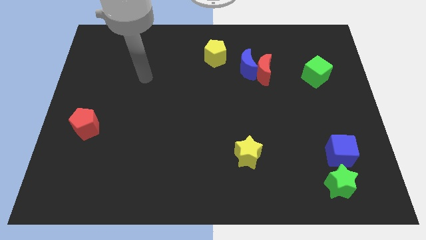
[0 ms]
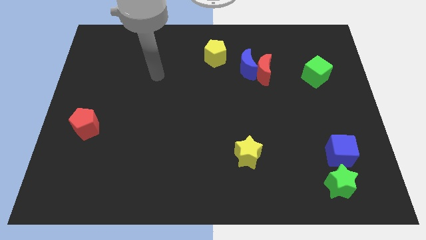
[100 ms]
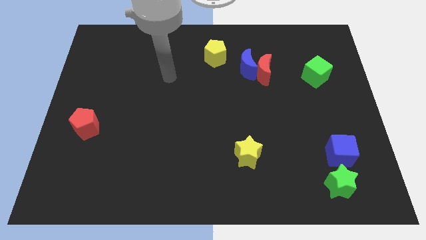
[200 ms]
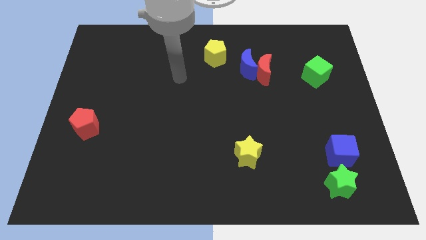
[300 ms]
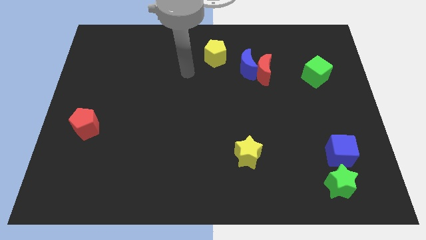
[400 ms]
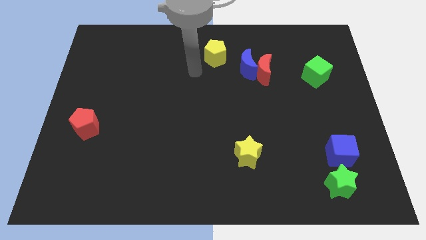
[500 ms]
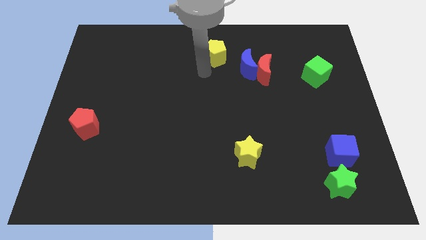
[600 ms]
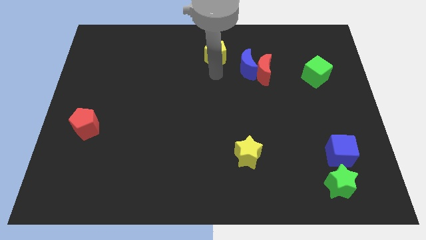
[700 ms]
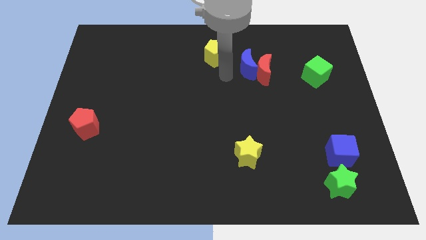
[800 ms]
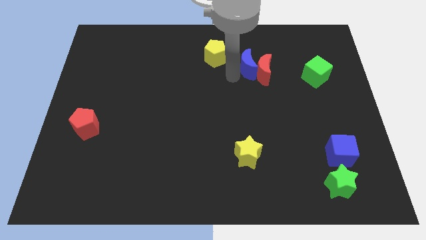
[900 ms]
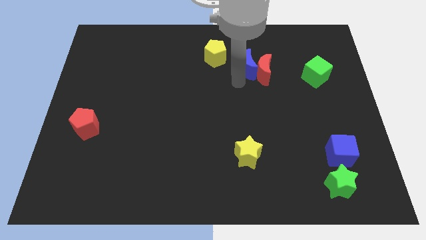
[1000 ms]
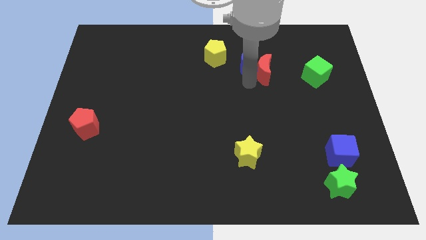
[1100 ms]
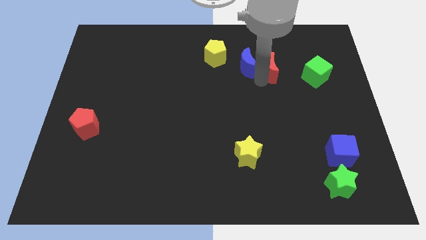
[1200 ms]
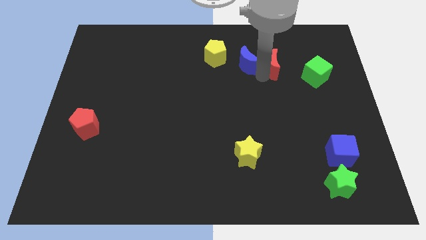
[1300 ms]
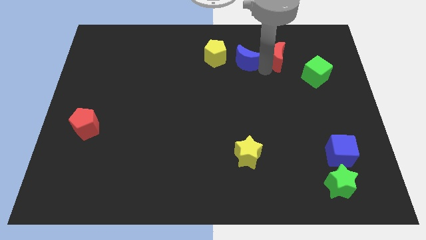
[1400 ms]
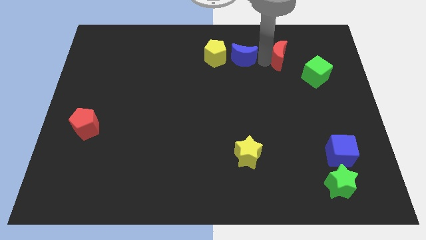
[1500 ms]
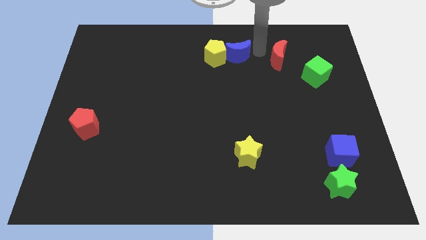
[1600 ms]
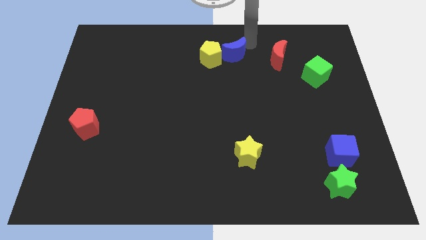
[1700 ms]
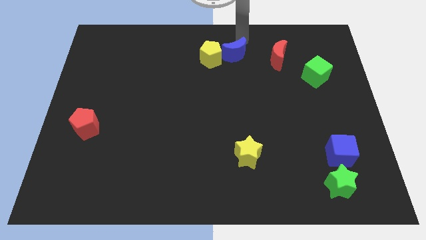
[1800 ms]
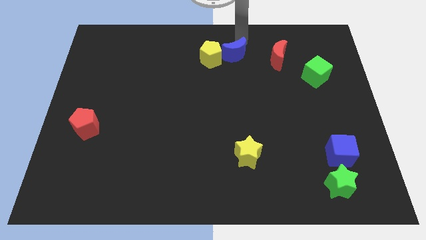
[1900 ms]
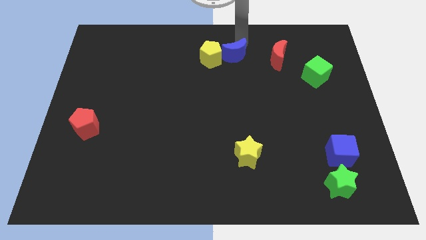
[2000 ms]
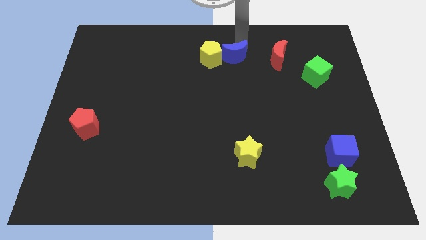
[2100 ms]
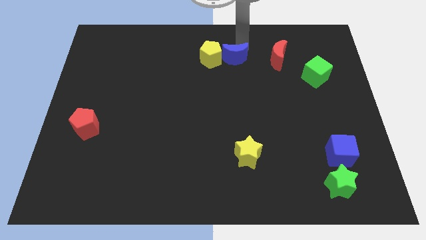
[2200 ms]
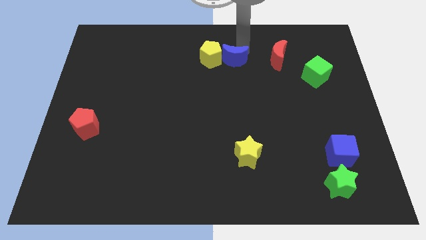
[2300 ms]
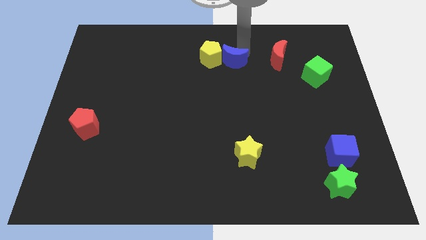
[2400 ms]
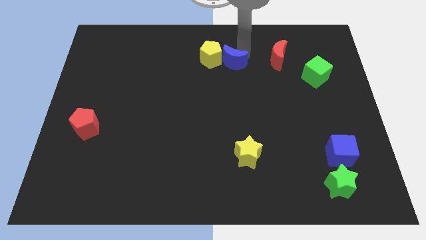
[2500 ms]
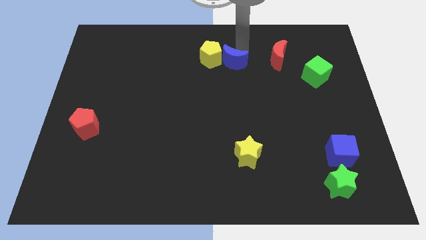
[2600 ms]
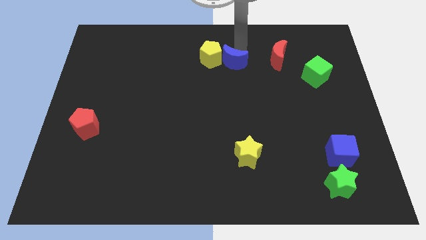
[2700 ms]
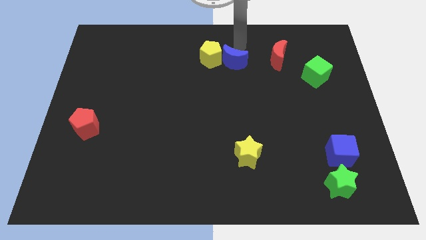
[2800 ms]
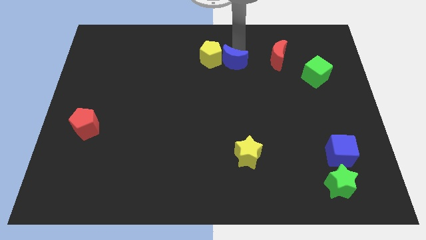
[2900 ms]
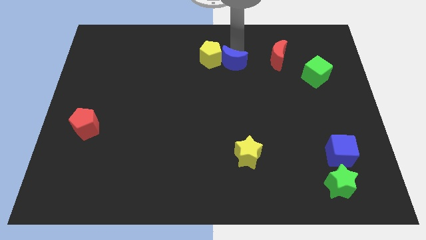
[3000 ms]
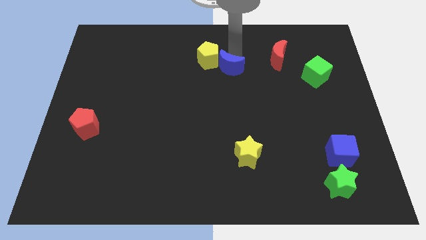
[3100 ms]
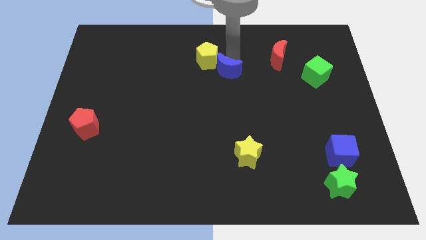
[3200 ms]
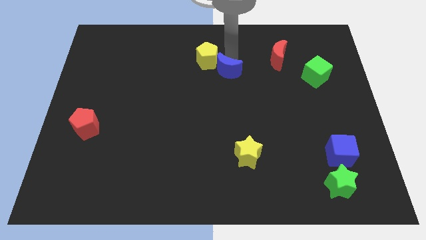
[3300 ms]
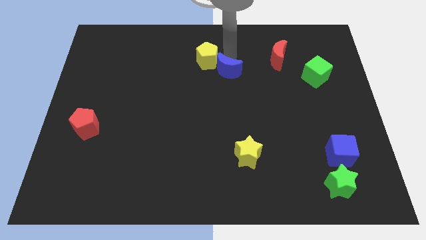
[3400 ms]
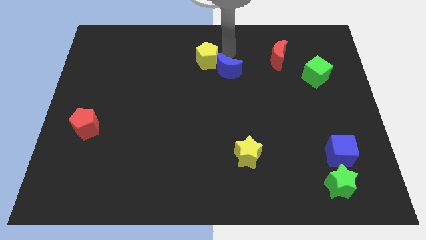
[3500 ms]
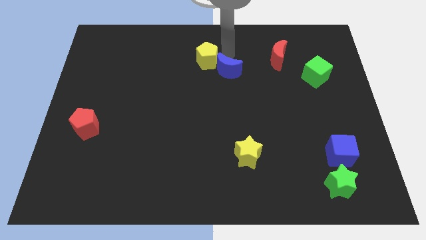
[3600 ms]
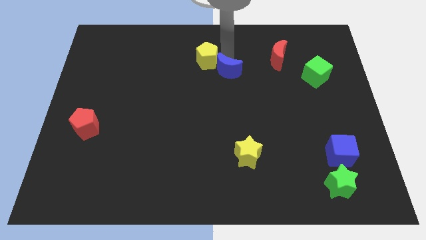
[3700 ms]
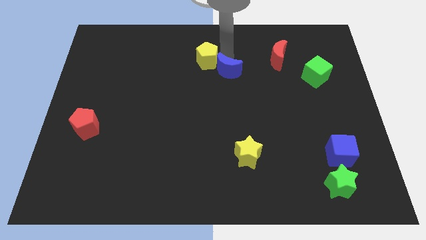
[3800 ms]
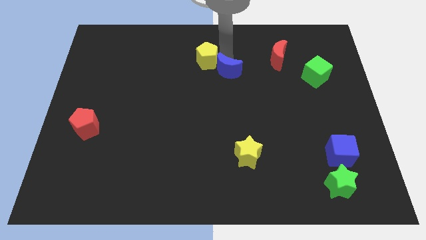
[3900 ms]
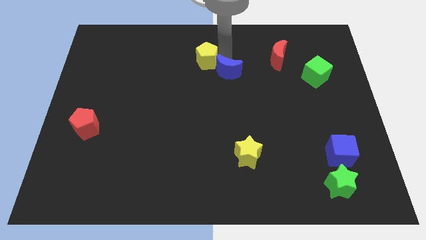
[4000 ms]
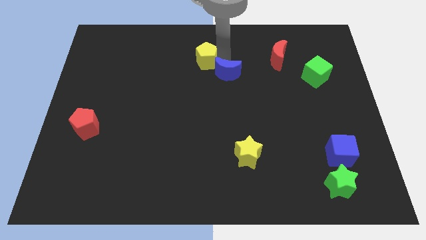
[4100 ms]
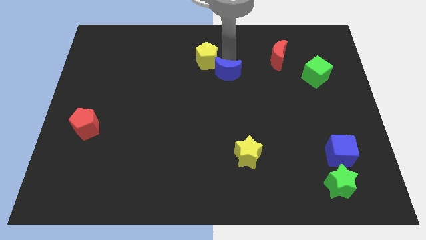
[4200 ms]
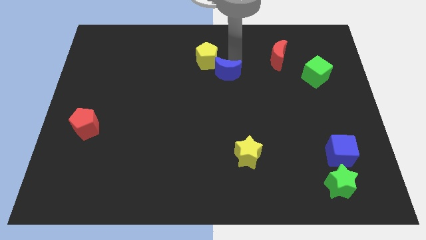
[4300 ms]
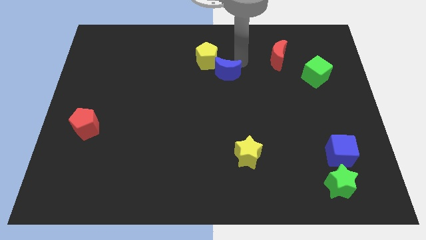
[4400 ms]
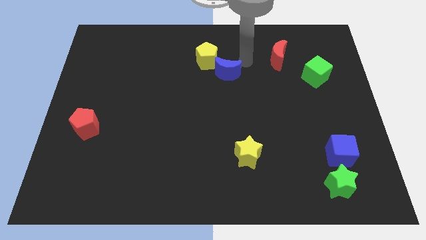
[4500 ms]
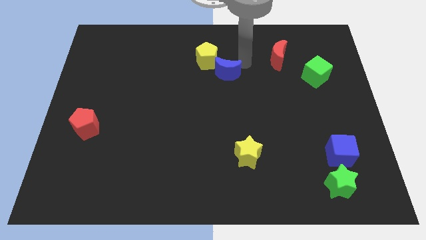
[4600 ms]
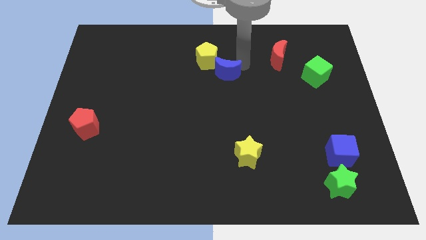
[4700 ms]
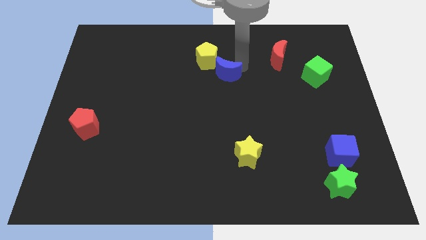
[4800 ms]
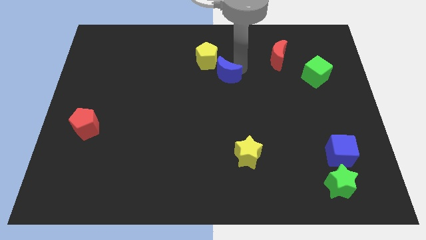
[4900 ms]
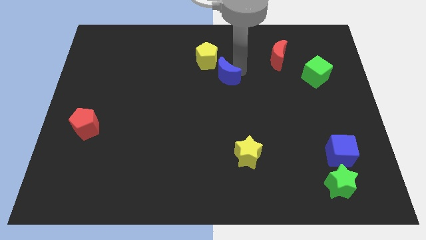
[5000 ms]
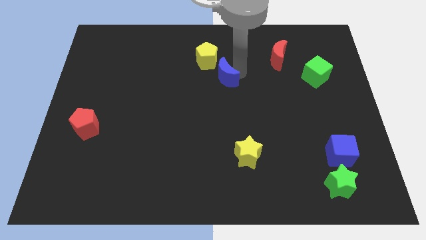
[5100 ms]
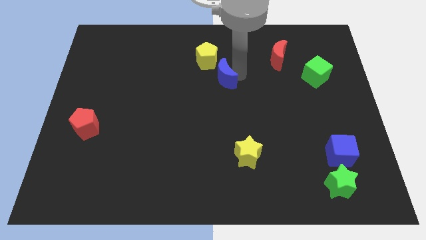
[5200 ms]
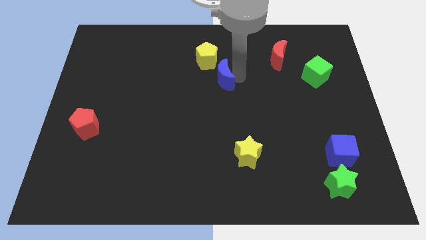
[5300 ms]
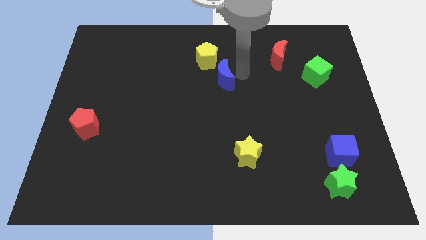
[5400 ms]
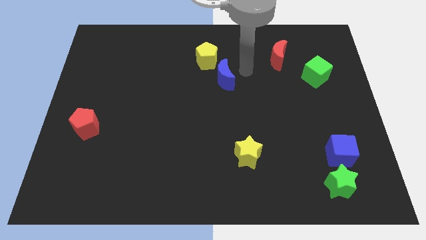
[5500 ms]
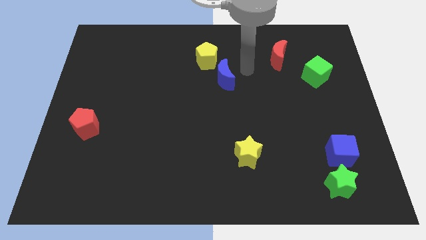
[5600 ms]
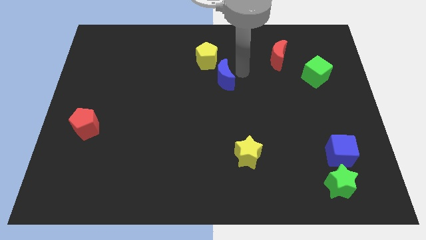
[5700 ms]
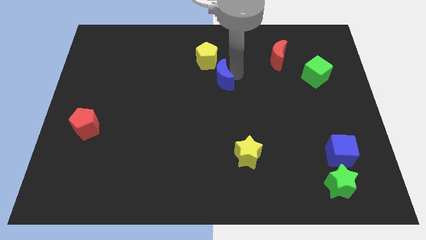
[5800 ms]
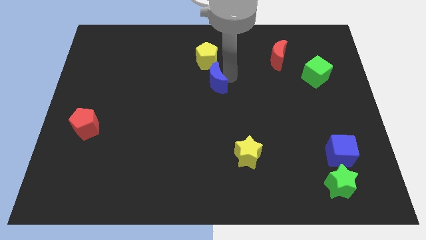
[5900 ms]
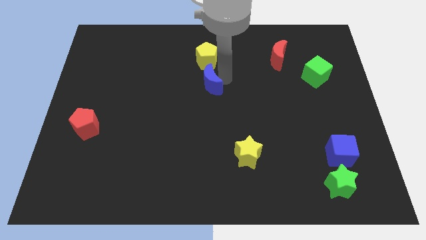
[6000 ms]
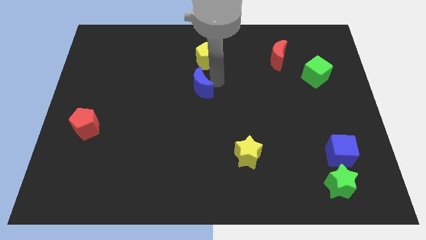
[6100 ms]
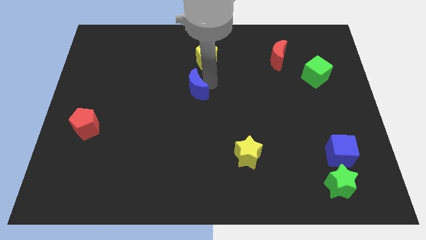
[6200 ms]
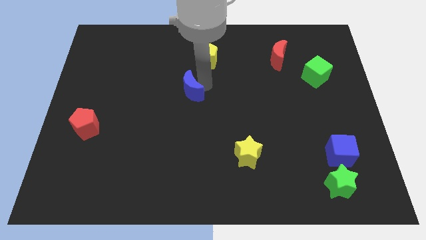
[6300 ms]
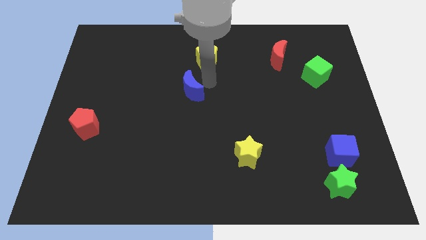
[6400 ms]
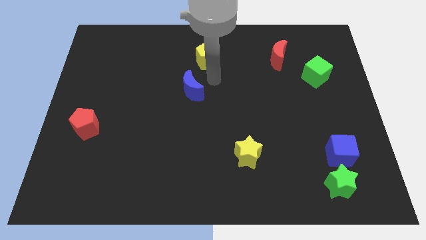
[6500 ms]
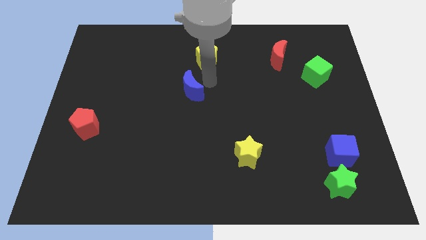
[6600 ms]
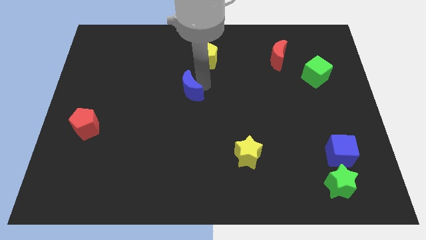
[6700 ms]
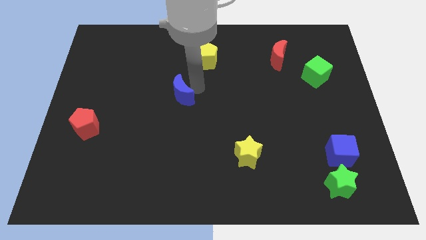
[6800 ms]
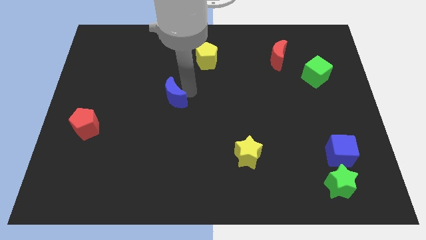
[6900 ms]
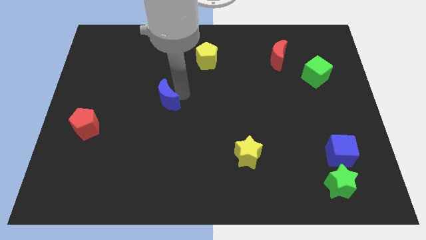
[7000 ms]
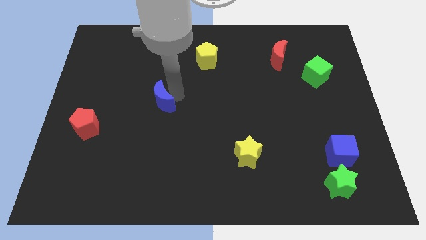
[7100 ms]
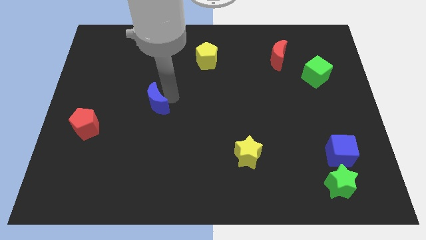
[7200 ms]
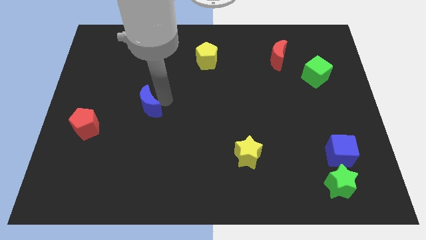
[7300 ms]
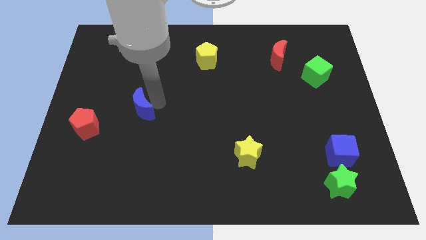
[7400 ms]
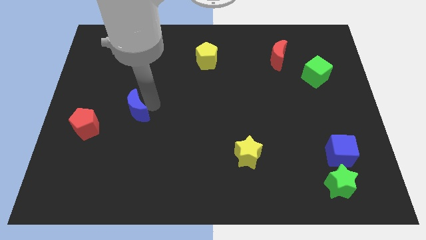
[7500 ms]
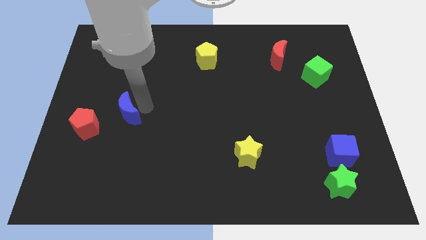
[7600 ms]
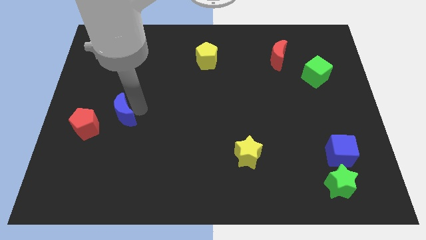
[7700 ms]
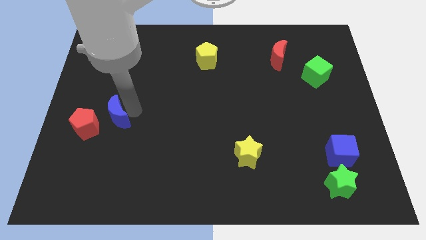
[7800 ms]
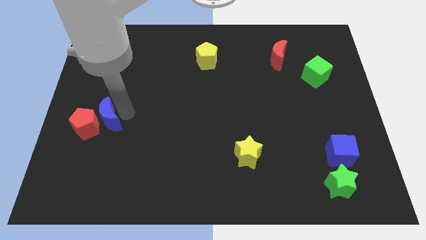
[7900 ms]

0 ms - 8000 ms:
slide the blue moon towards the red pentagon
